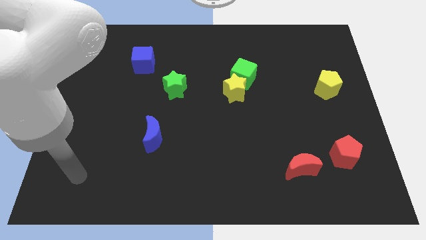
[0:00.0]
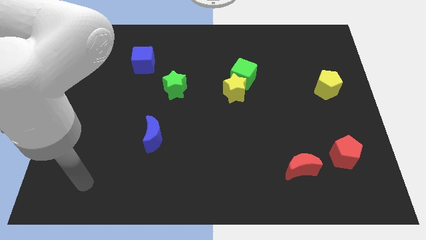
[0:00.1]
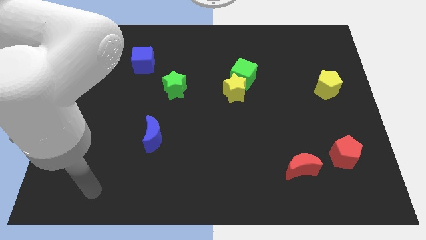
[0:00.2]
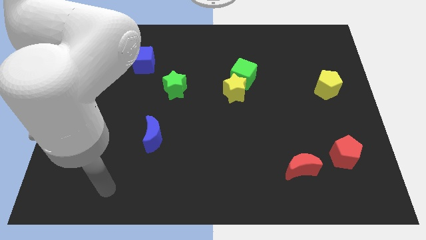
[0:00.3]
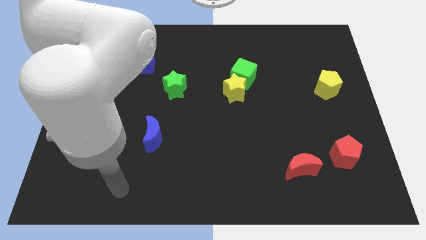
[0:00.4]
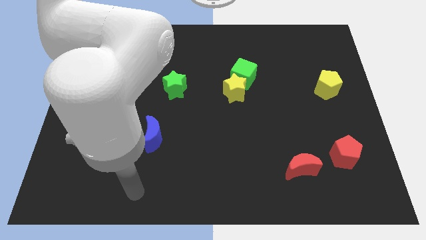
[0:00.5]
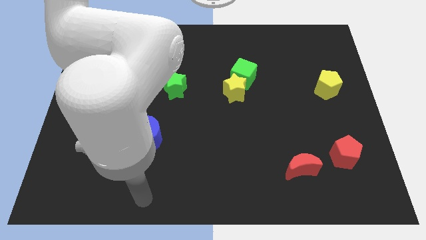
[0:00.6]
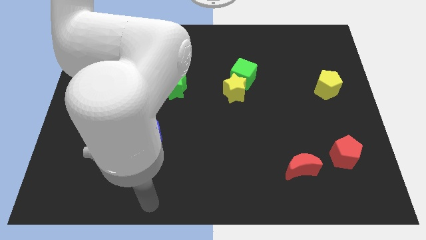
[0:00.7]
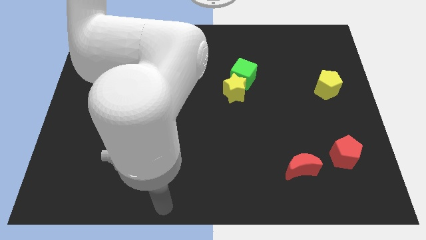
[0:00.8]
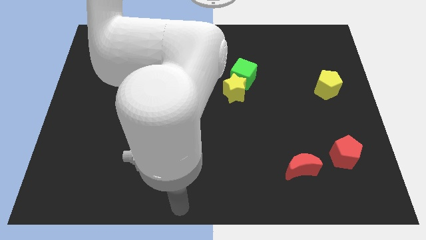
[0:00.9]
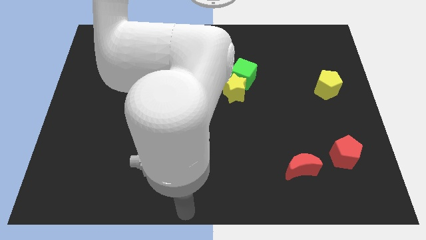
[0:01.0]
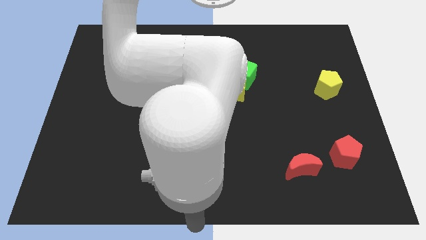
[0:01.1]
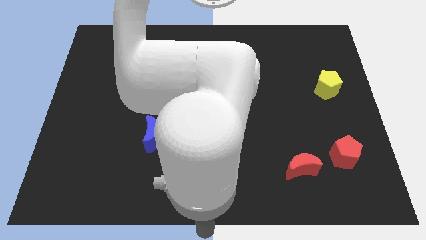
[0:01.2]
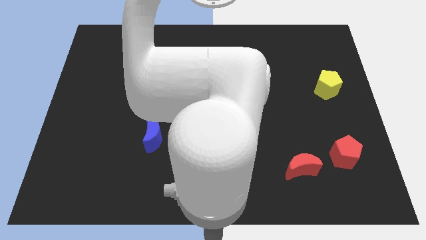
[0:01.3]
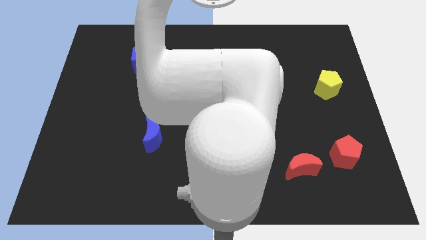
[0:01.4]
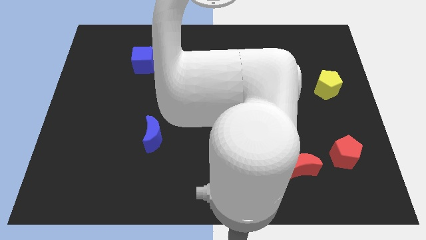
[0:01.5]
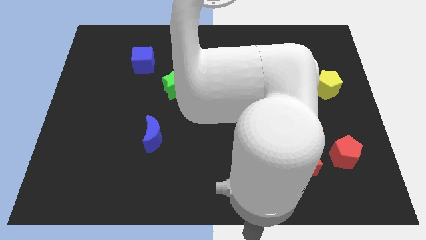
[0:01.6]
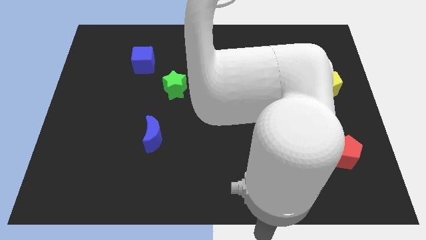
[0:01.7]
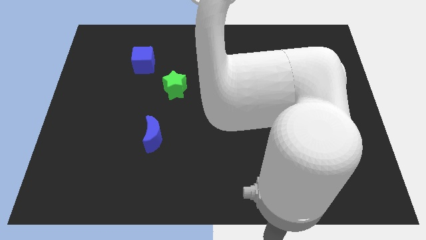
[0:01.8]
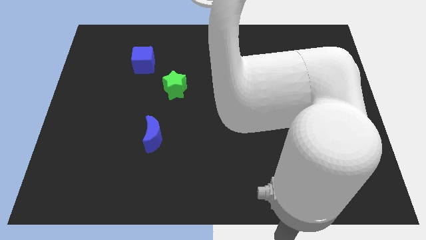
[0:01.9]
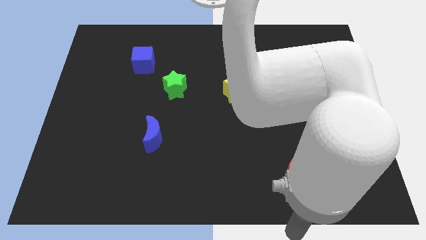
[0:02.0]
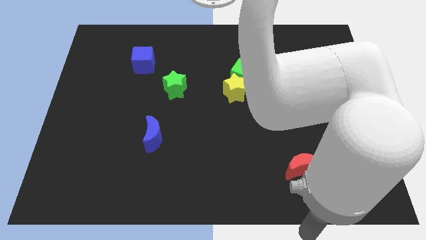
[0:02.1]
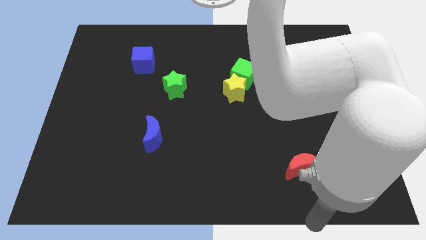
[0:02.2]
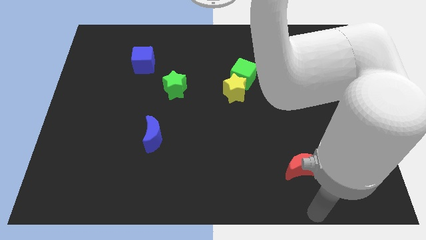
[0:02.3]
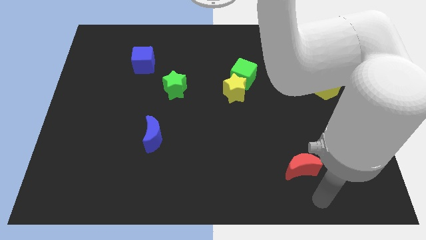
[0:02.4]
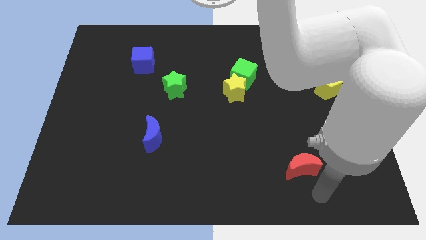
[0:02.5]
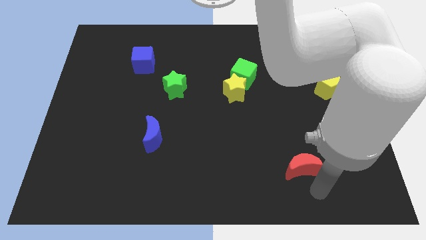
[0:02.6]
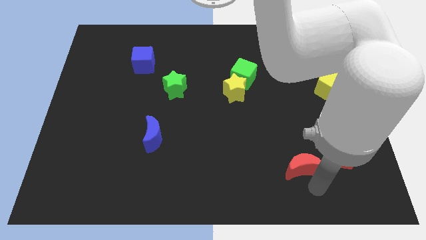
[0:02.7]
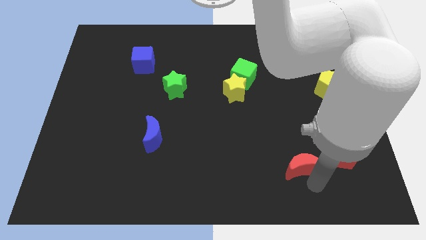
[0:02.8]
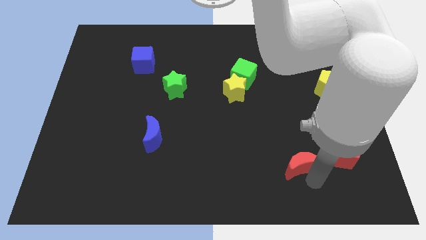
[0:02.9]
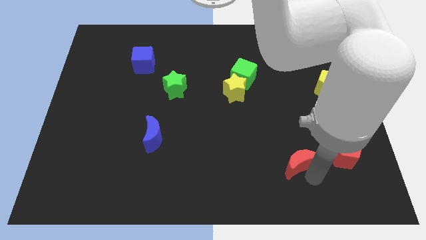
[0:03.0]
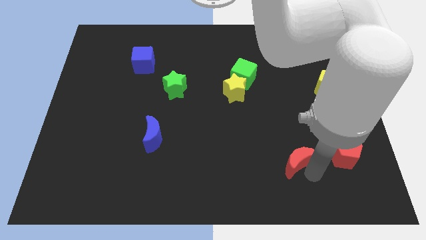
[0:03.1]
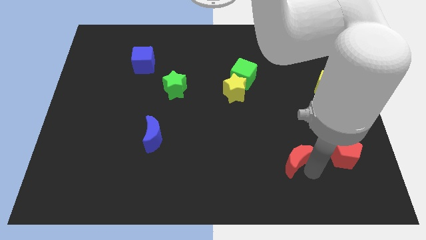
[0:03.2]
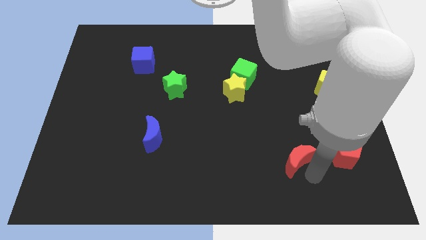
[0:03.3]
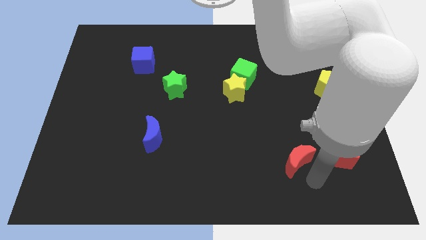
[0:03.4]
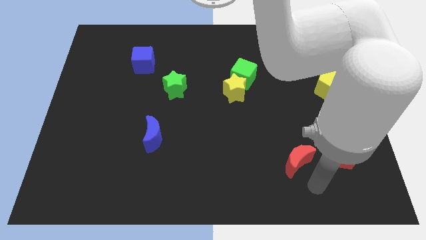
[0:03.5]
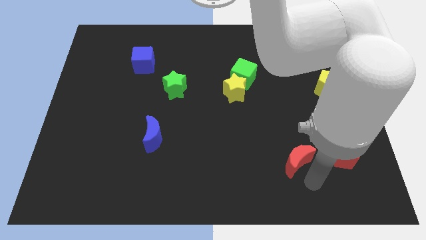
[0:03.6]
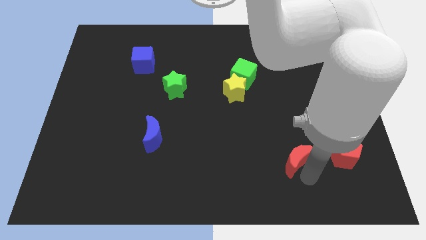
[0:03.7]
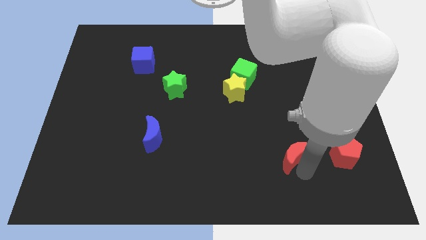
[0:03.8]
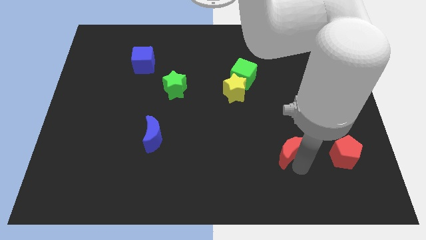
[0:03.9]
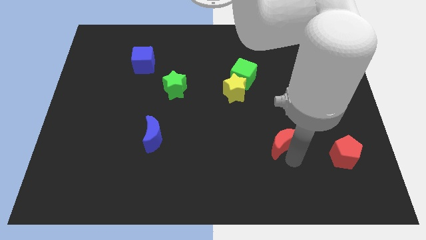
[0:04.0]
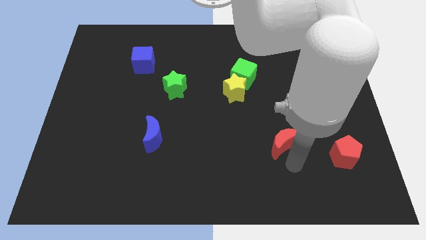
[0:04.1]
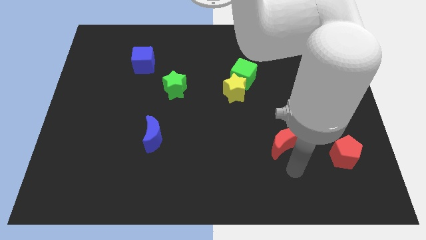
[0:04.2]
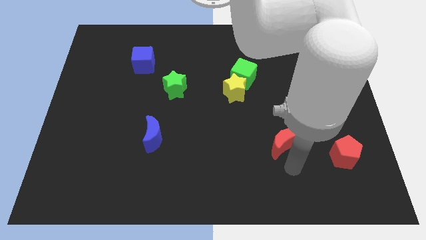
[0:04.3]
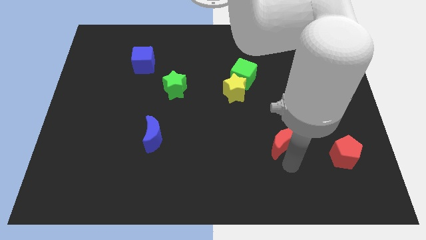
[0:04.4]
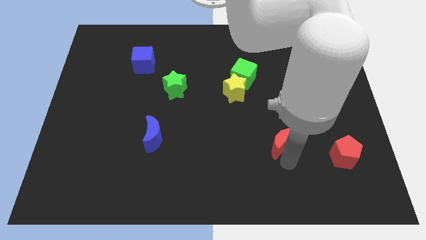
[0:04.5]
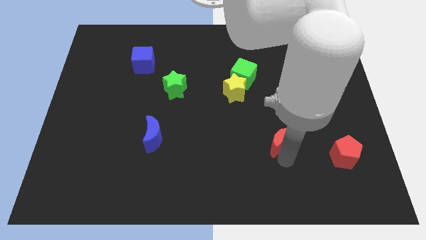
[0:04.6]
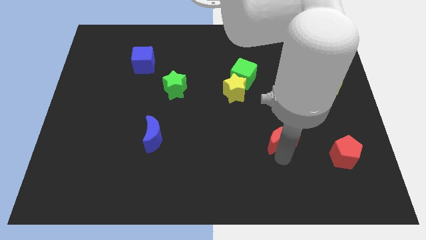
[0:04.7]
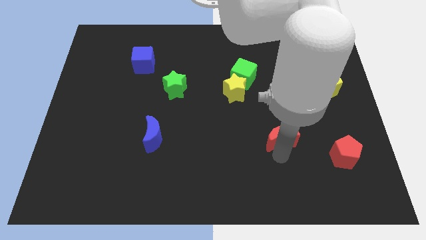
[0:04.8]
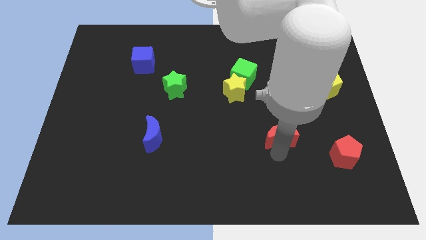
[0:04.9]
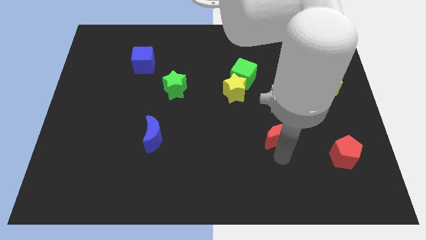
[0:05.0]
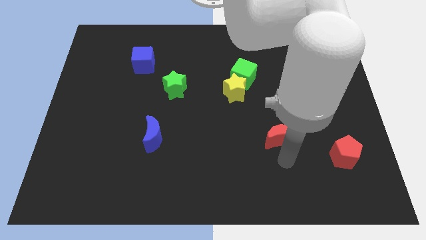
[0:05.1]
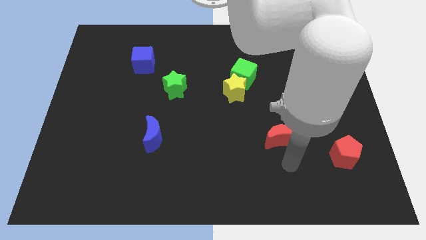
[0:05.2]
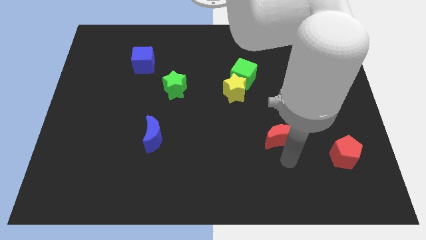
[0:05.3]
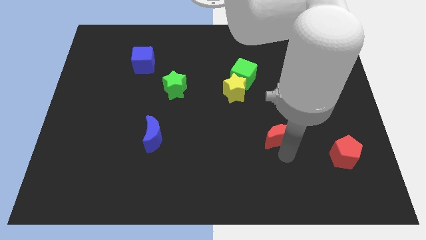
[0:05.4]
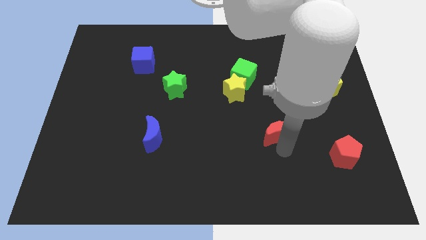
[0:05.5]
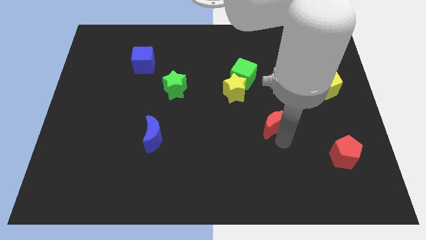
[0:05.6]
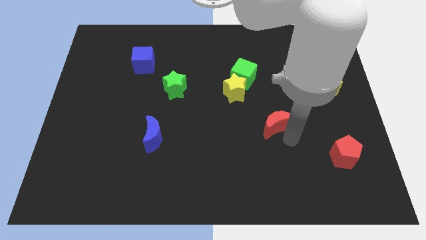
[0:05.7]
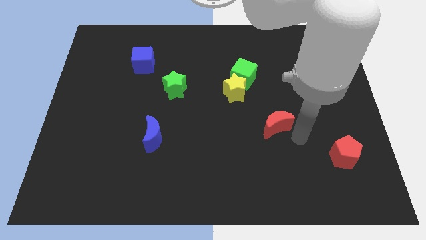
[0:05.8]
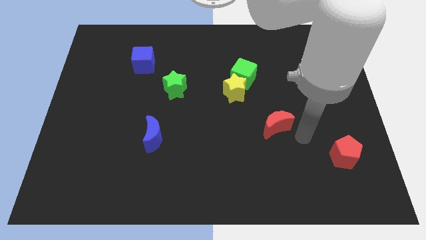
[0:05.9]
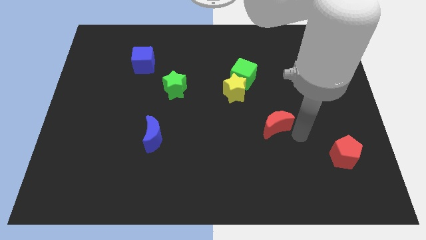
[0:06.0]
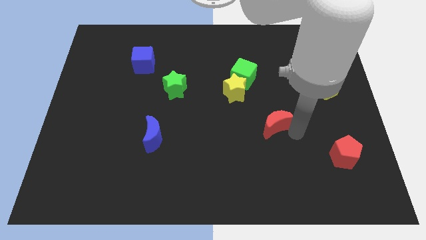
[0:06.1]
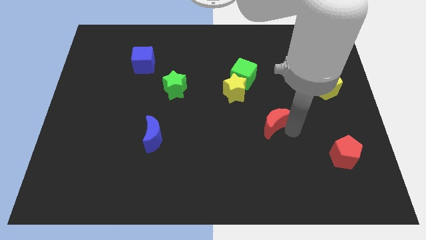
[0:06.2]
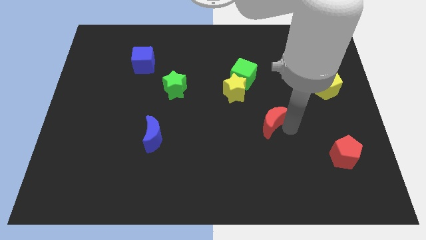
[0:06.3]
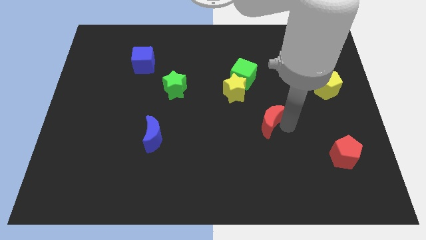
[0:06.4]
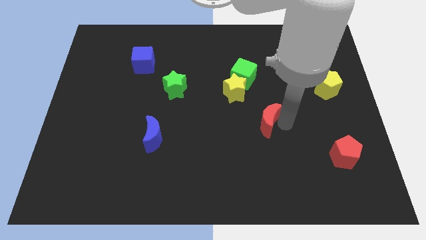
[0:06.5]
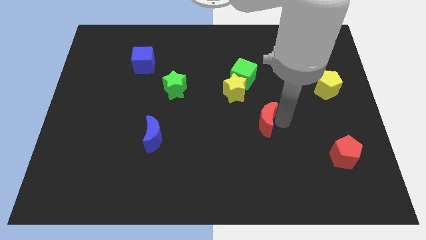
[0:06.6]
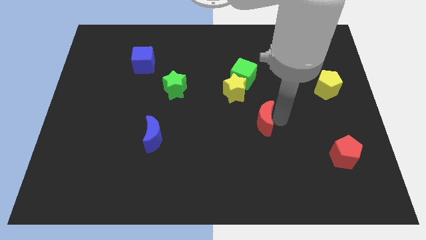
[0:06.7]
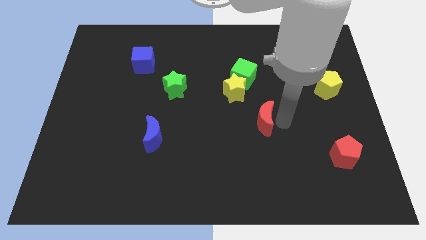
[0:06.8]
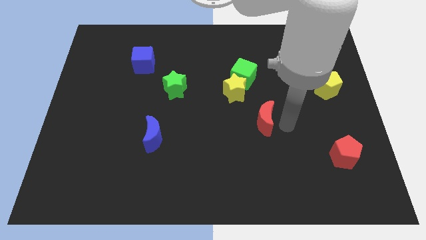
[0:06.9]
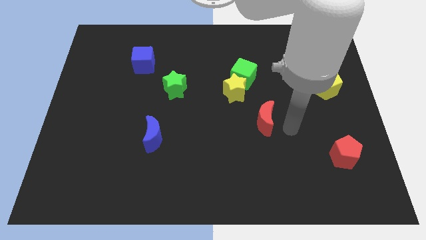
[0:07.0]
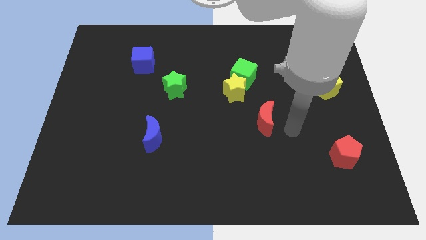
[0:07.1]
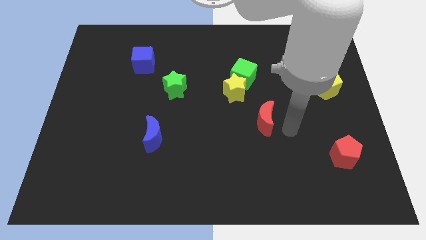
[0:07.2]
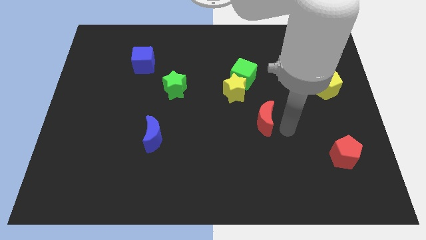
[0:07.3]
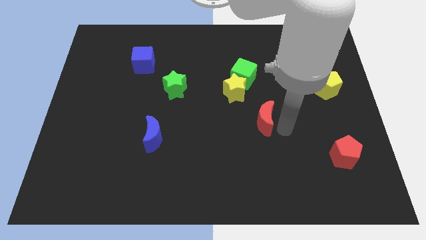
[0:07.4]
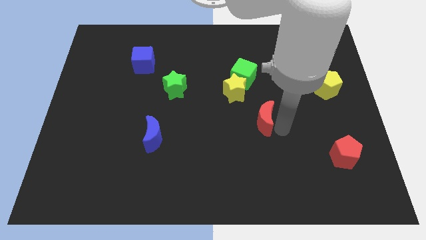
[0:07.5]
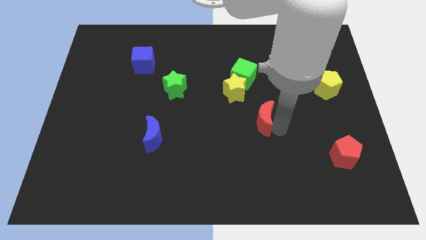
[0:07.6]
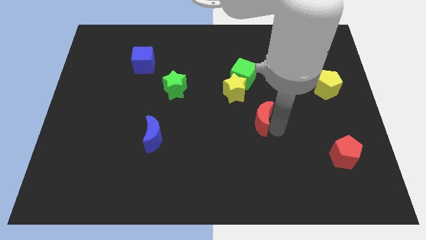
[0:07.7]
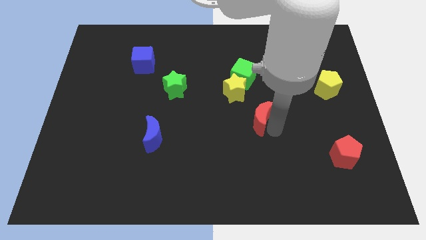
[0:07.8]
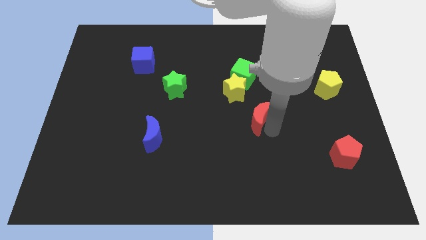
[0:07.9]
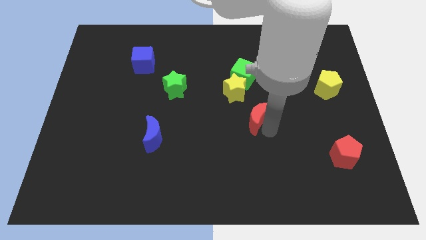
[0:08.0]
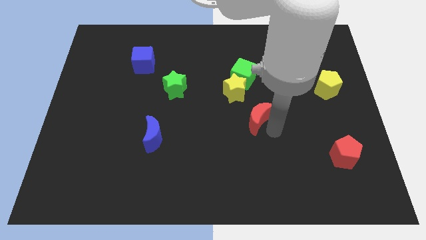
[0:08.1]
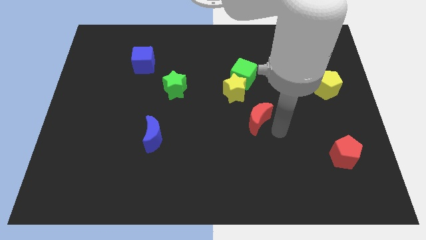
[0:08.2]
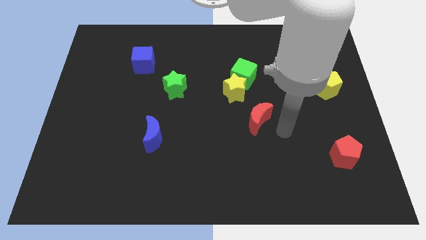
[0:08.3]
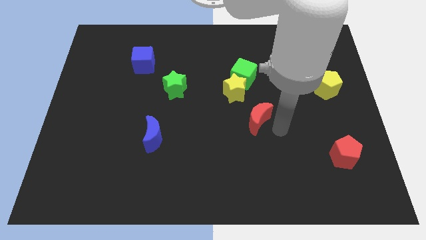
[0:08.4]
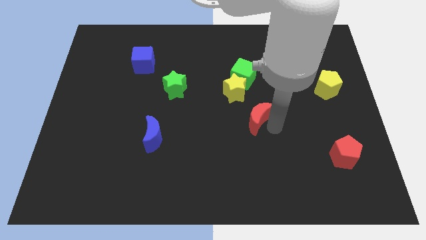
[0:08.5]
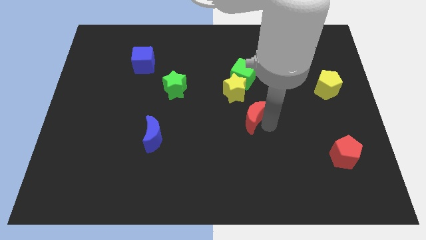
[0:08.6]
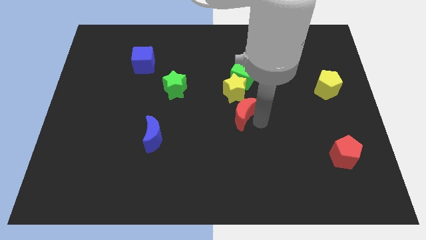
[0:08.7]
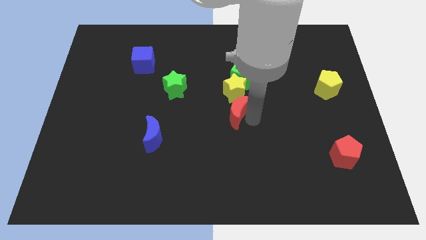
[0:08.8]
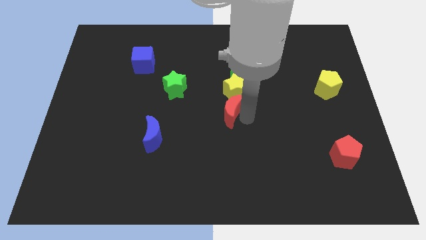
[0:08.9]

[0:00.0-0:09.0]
push the red moon upwards and then to the left
